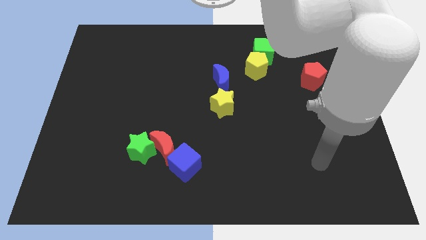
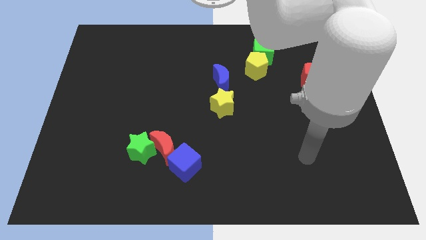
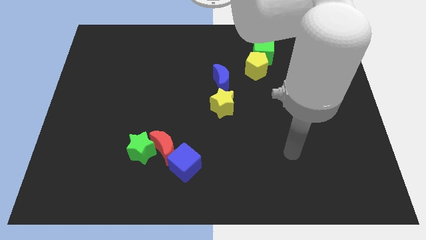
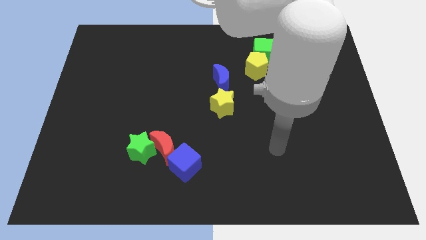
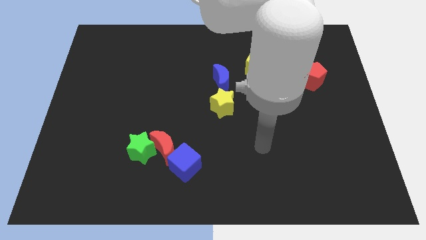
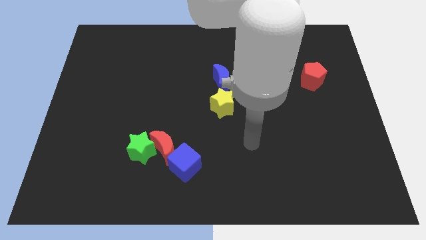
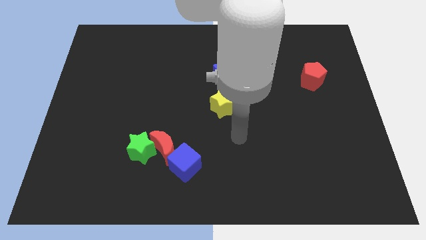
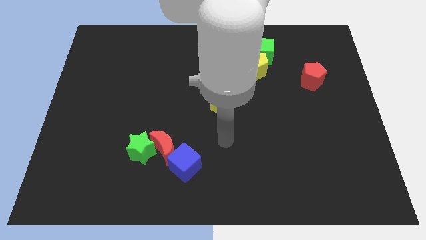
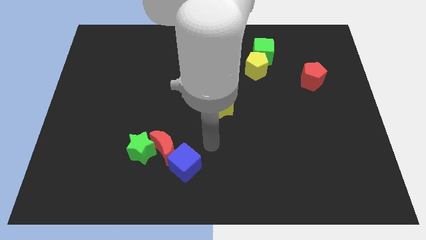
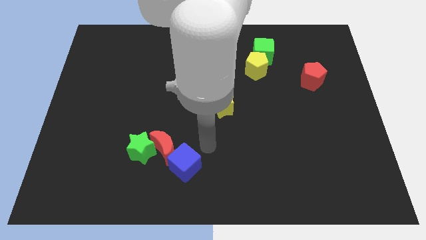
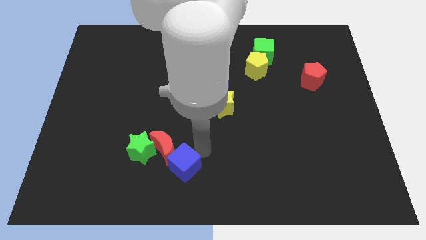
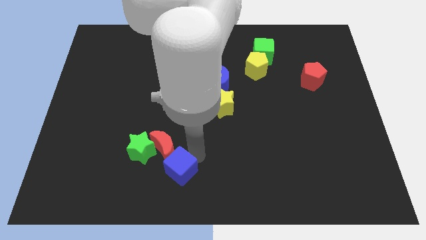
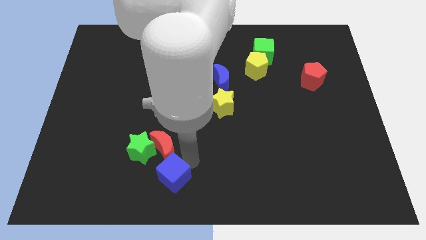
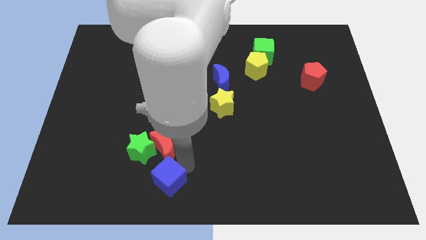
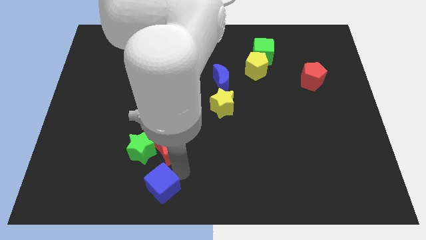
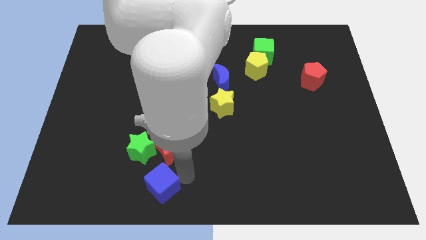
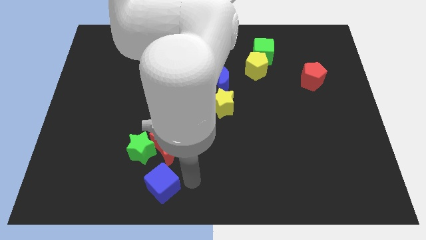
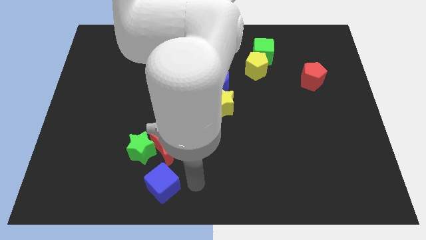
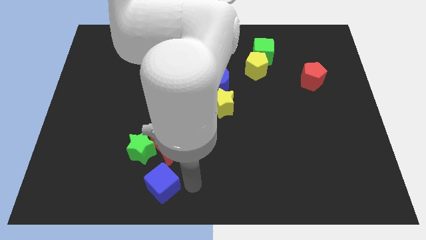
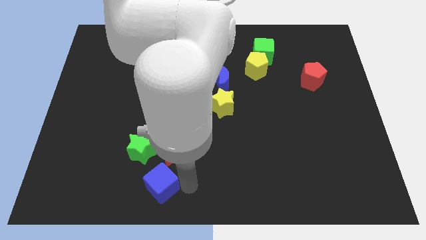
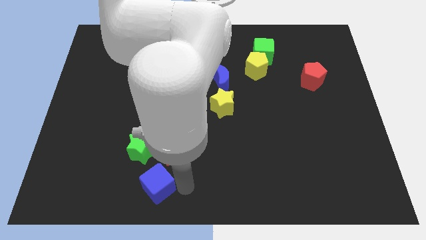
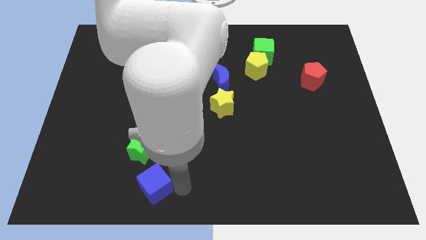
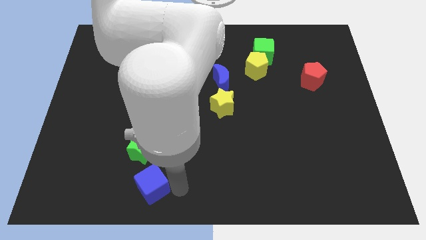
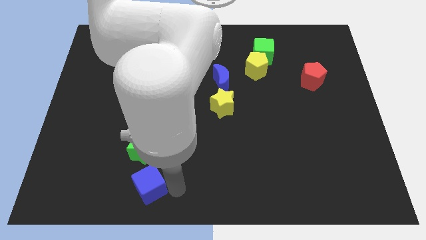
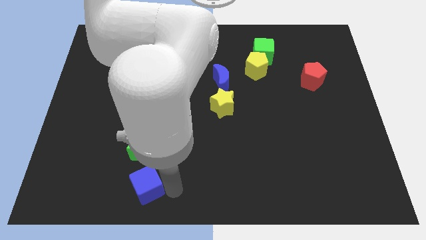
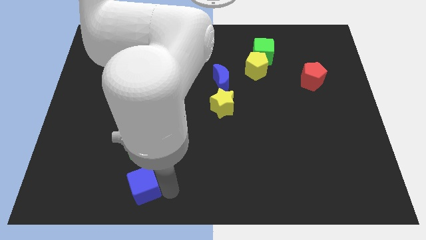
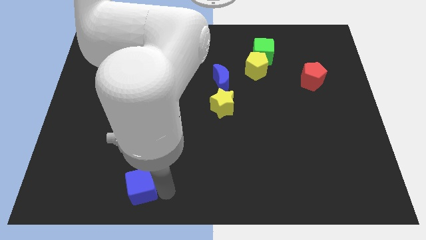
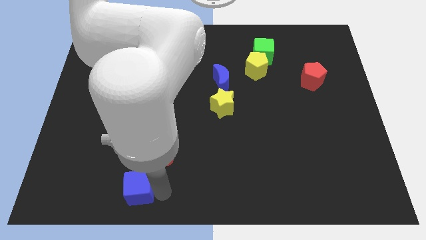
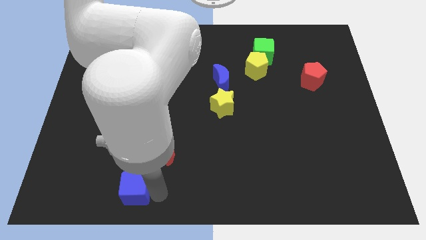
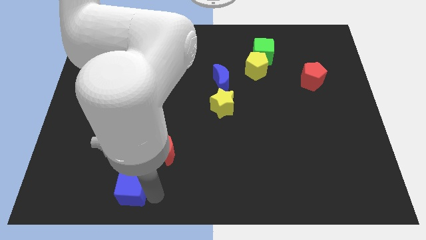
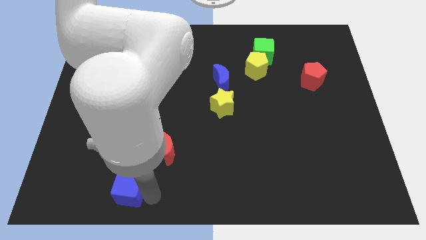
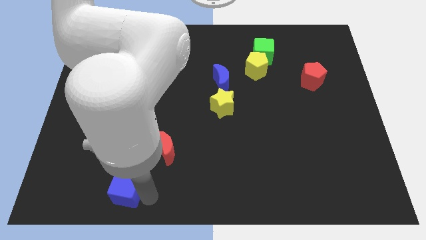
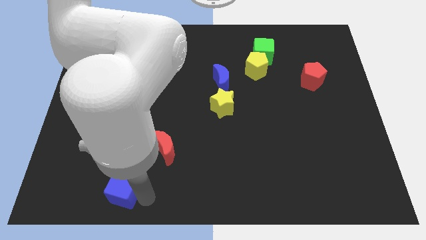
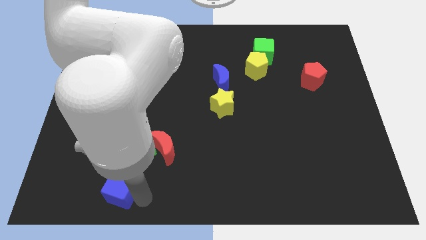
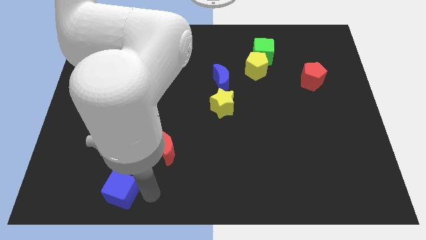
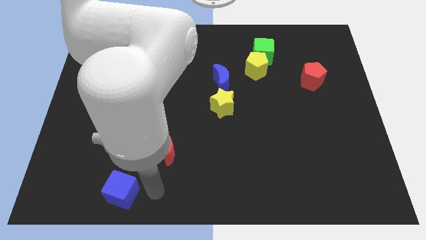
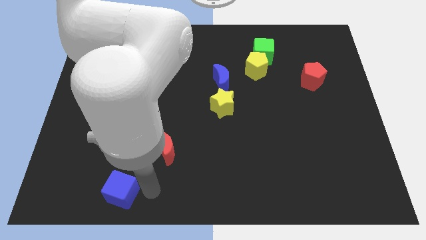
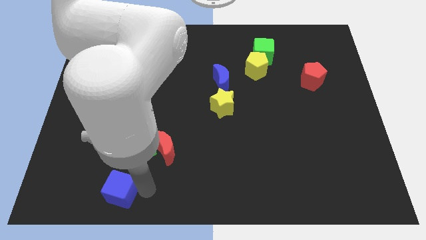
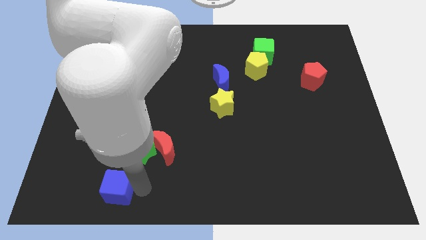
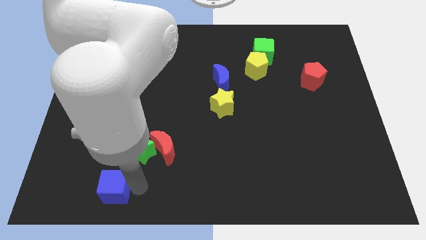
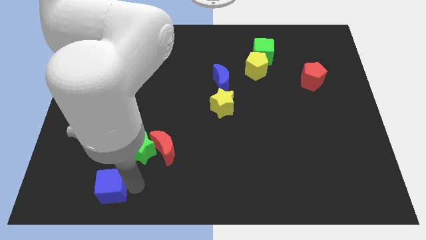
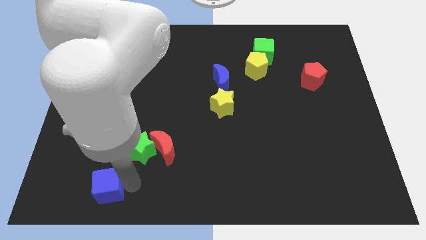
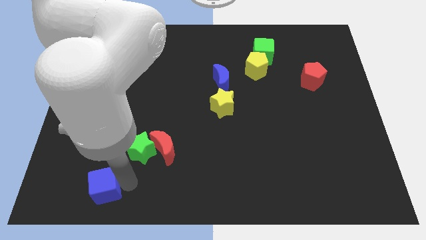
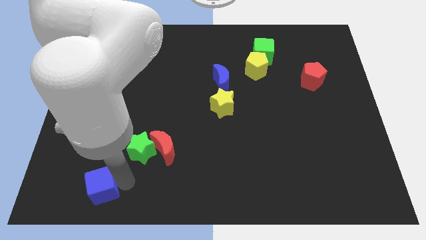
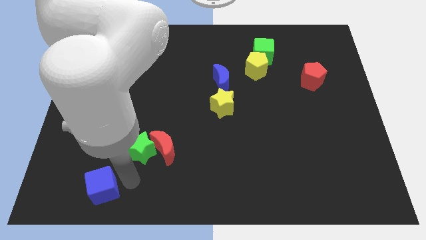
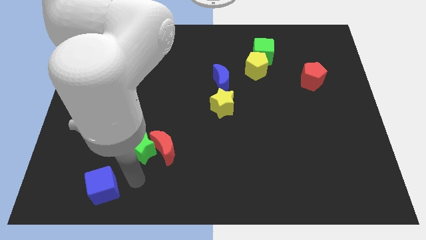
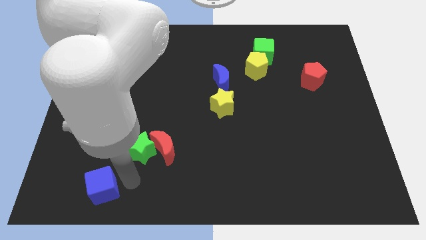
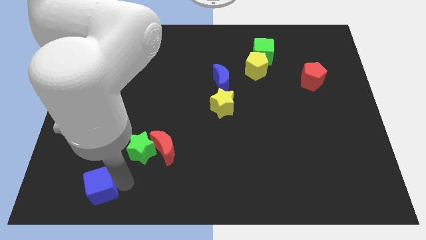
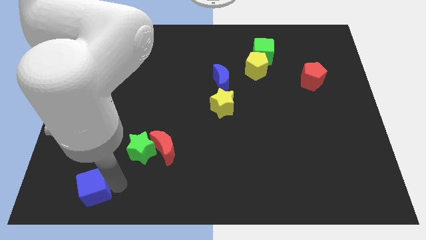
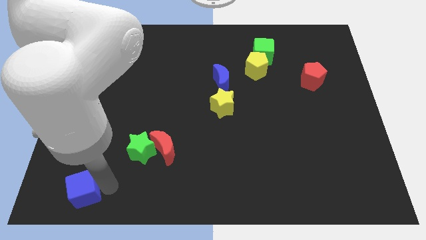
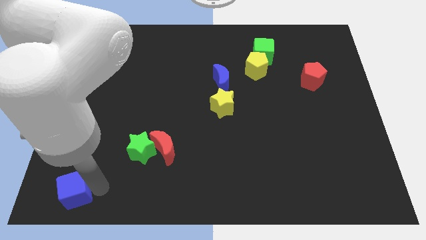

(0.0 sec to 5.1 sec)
put the blue cube to the lower left corner

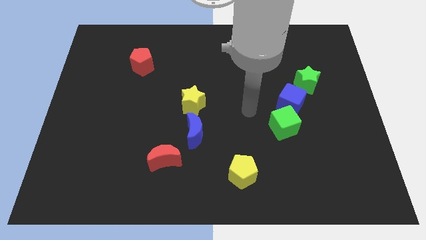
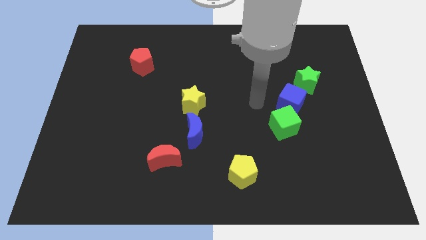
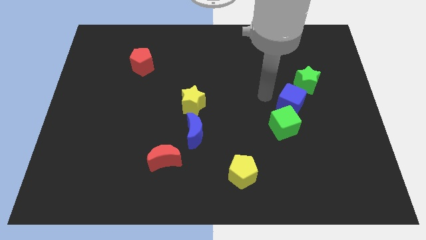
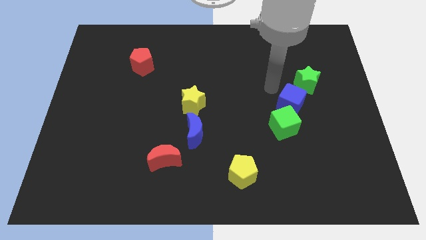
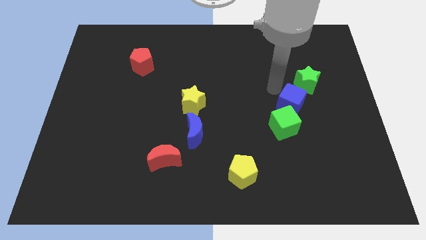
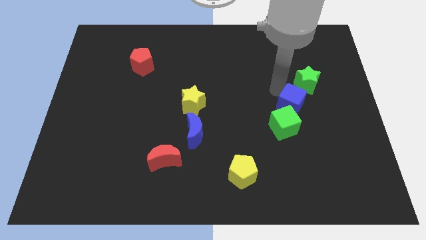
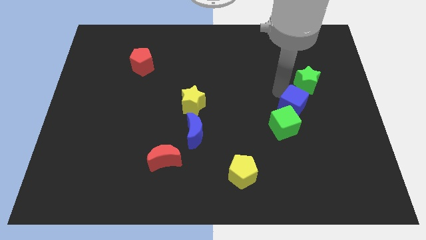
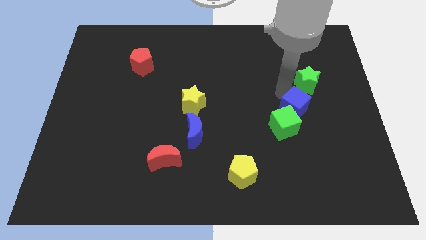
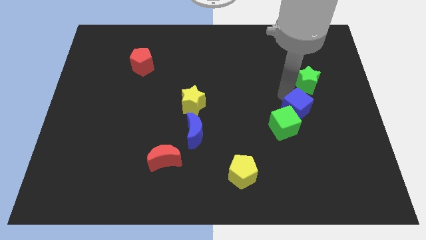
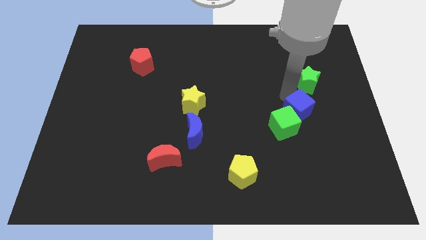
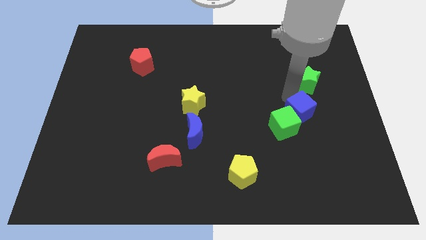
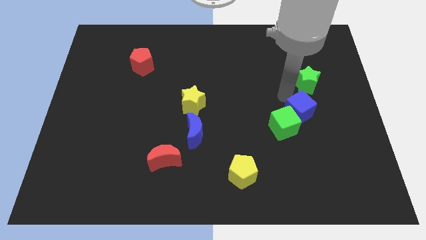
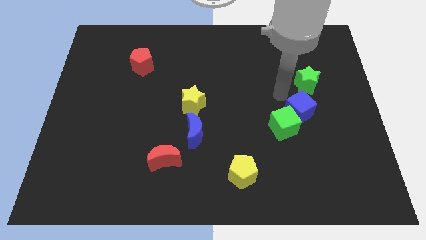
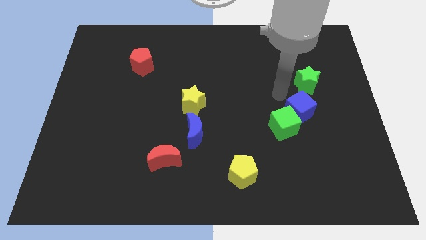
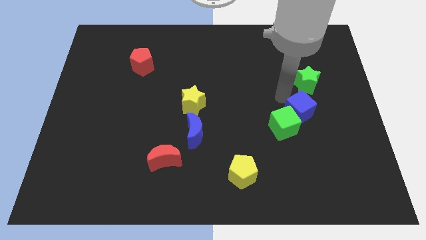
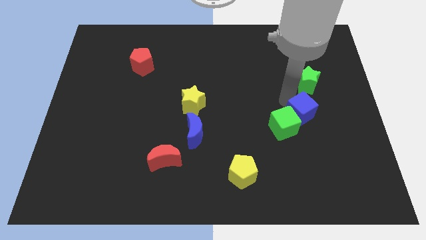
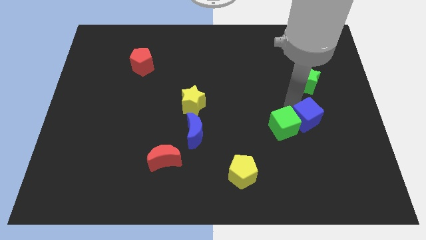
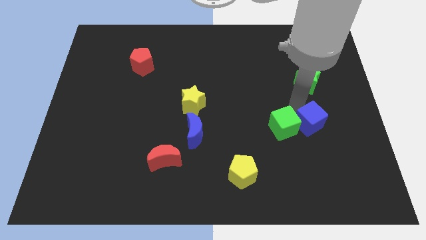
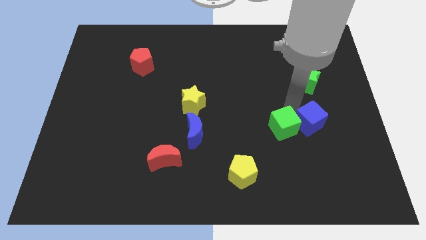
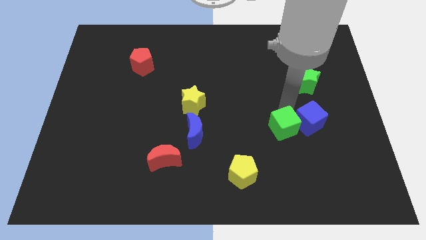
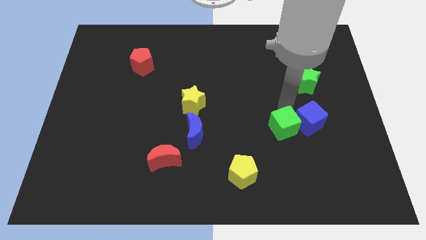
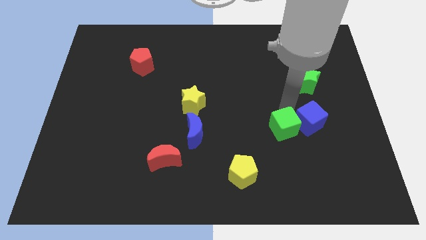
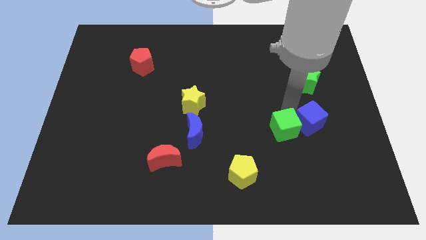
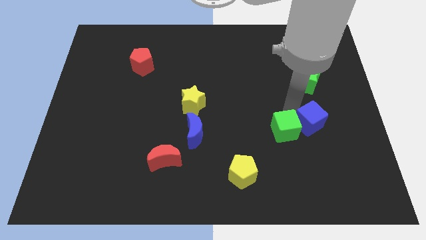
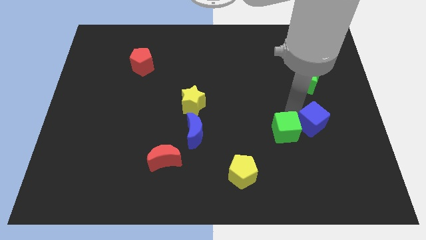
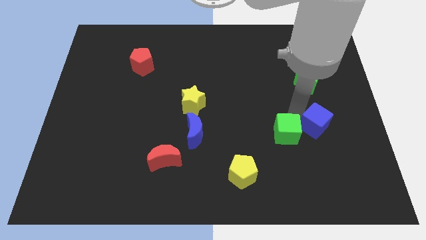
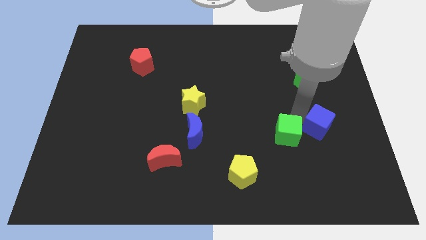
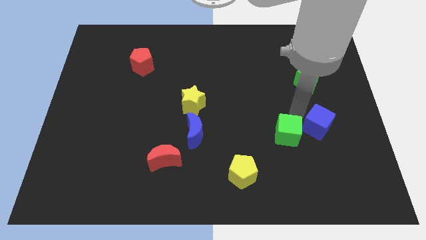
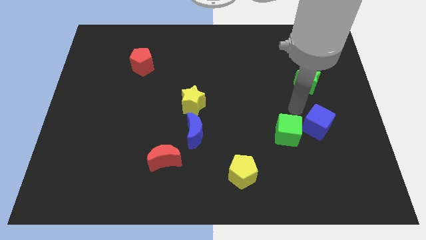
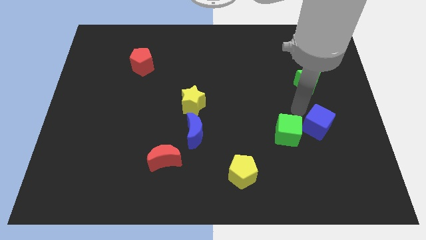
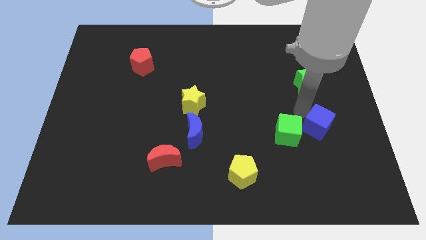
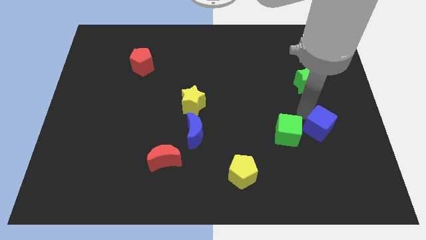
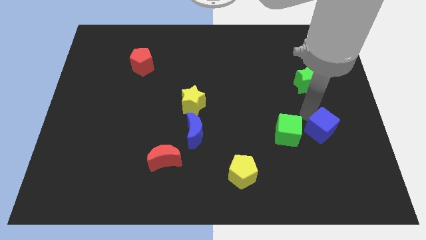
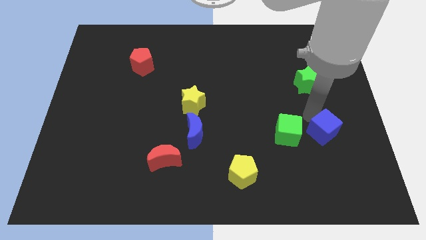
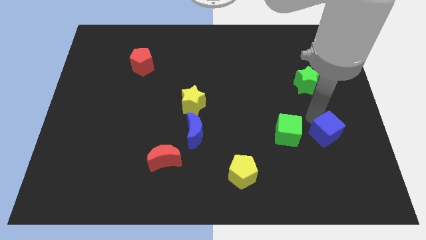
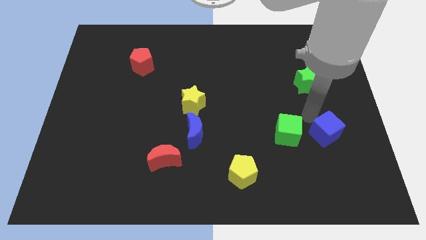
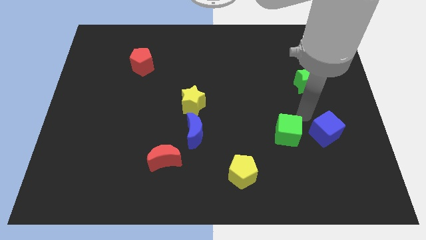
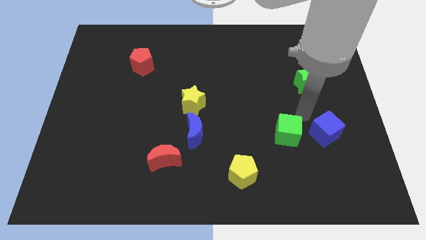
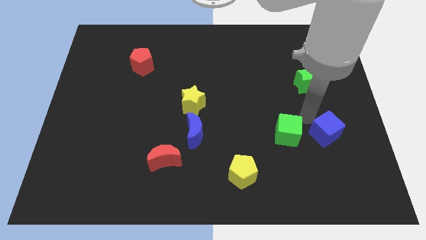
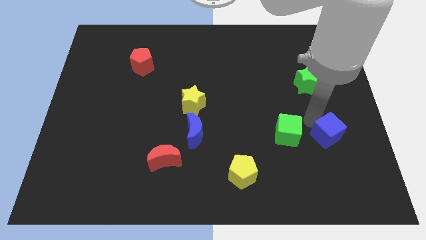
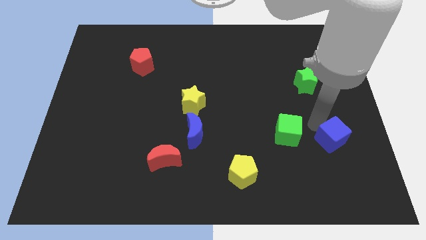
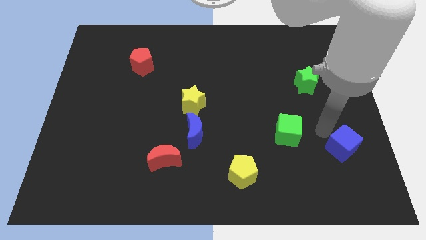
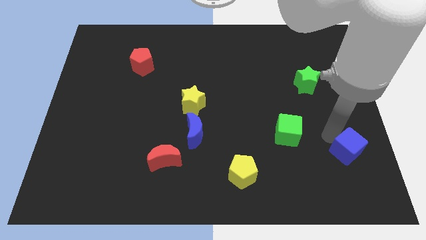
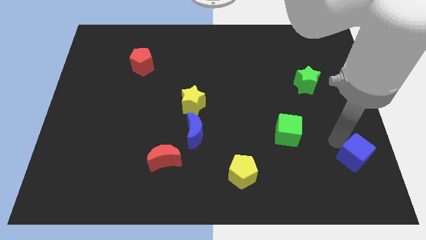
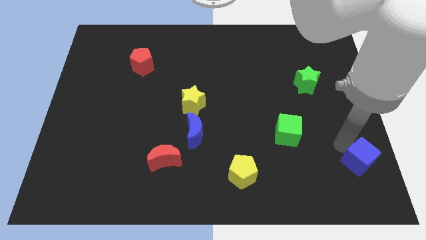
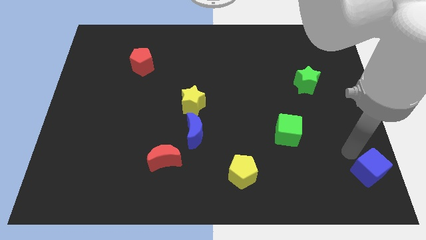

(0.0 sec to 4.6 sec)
move the blue cube to the bottom right corner
